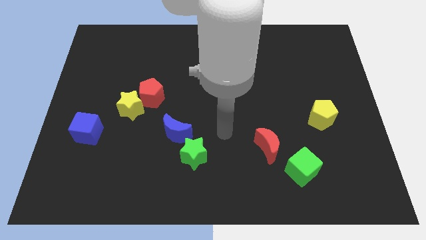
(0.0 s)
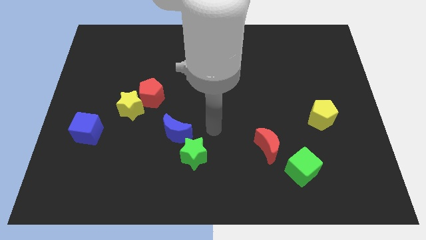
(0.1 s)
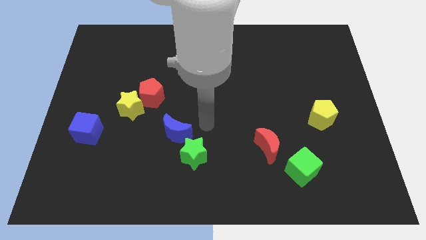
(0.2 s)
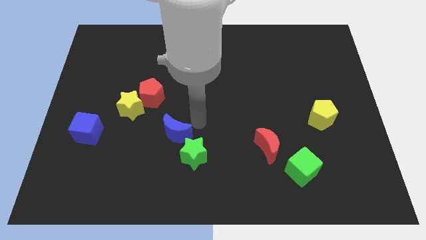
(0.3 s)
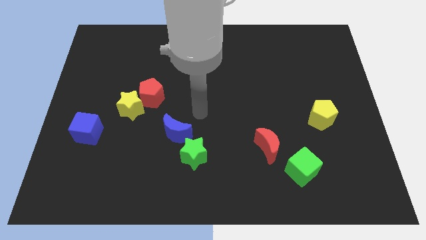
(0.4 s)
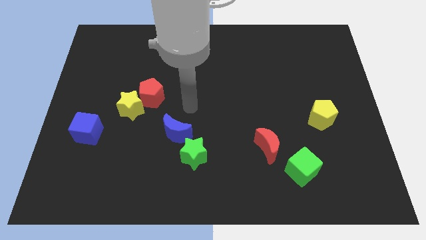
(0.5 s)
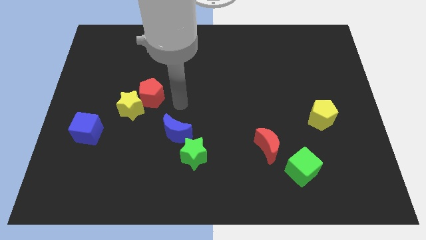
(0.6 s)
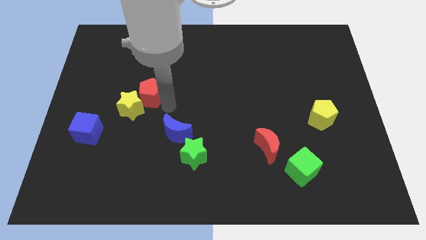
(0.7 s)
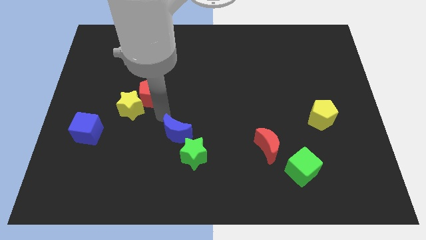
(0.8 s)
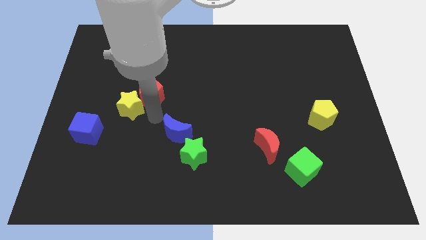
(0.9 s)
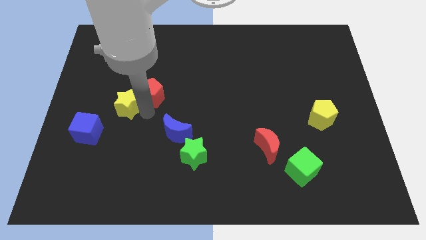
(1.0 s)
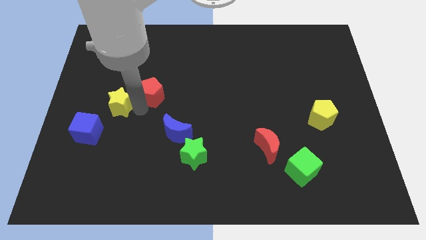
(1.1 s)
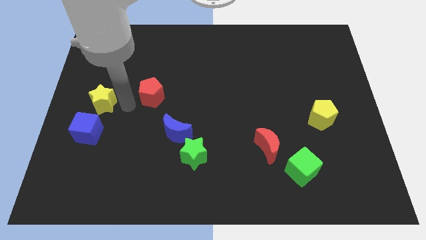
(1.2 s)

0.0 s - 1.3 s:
separate the red pentagon from the yellow star

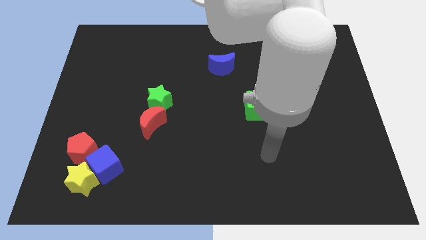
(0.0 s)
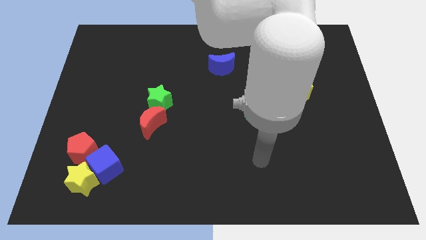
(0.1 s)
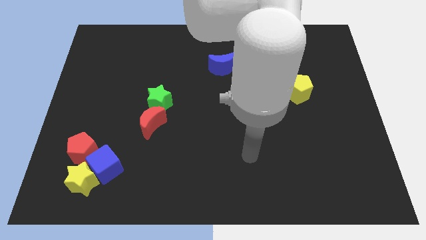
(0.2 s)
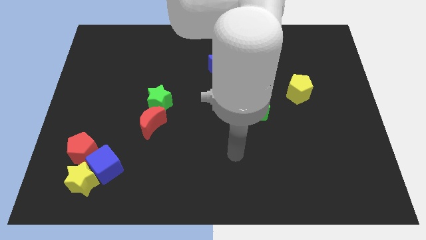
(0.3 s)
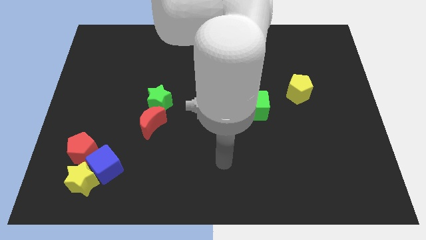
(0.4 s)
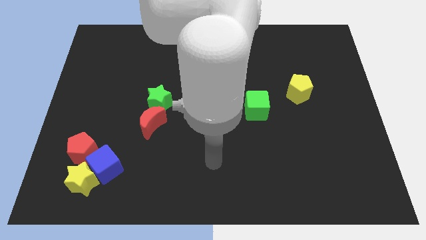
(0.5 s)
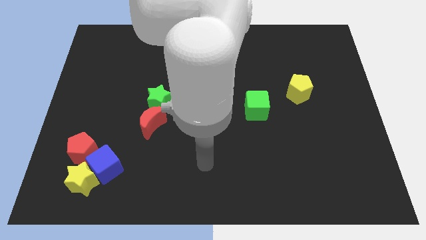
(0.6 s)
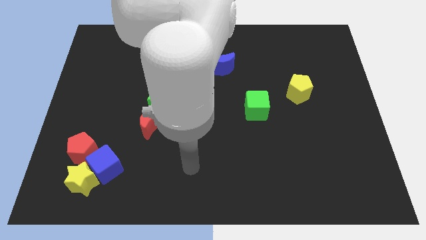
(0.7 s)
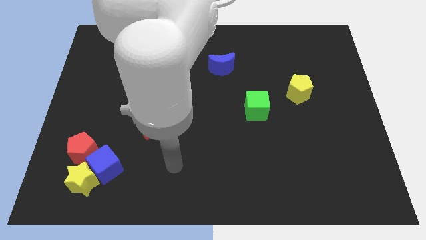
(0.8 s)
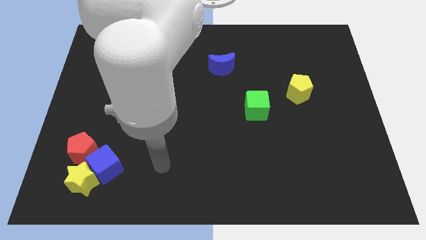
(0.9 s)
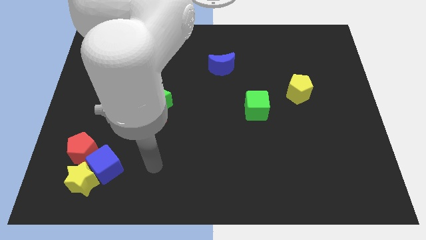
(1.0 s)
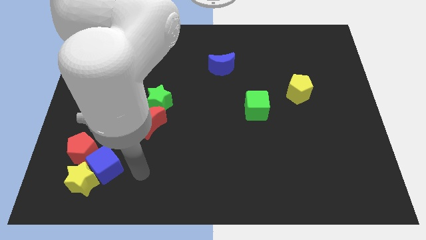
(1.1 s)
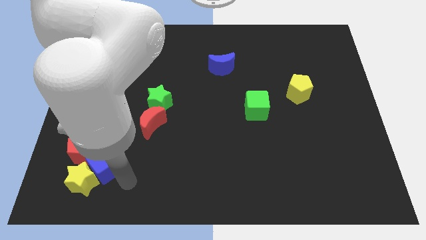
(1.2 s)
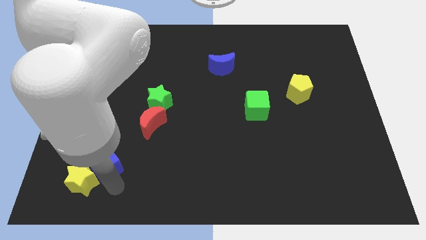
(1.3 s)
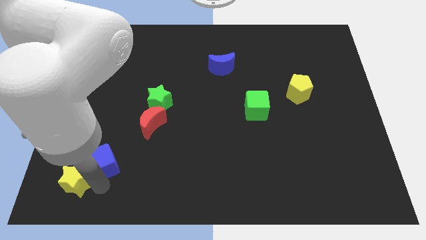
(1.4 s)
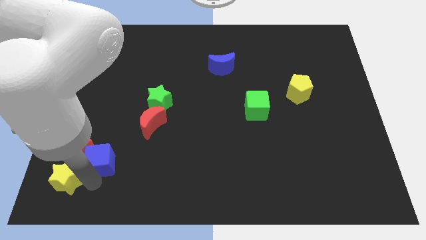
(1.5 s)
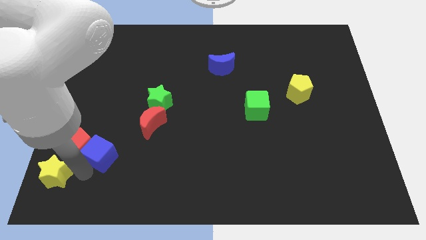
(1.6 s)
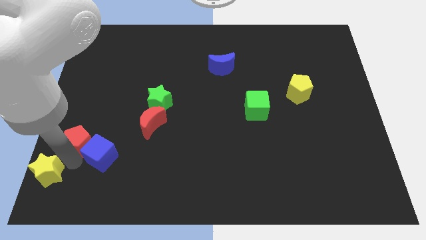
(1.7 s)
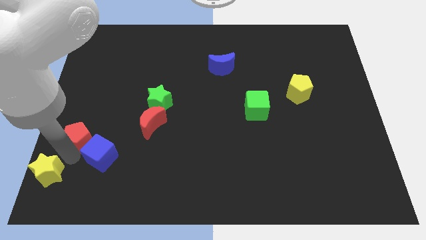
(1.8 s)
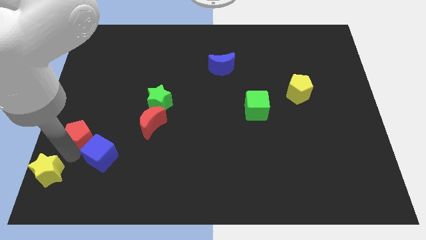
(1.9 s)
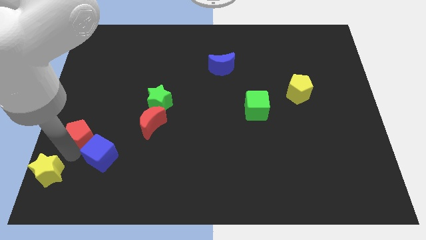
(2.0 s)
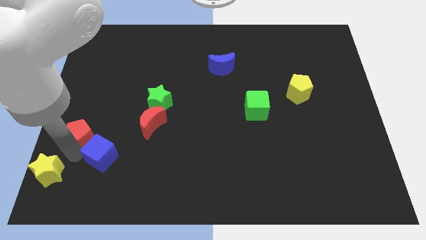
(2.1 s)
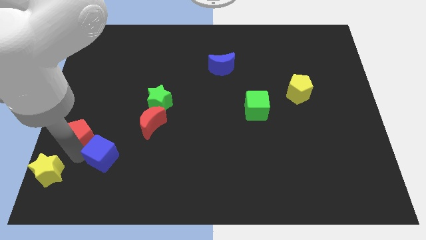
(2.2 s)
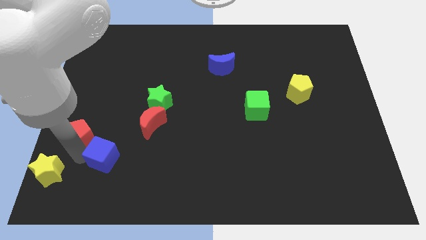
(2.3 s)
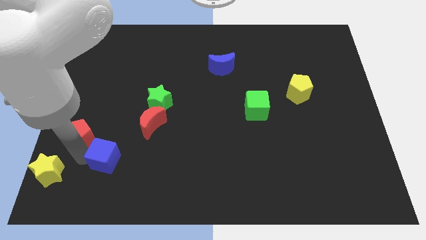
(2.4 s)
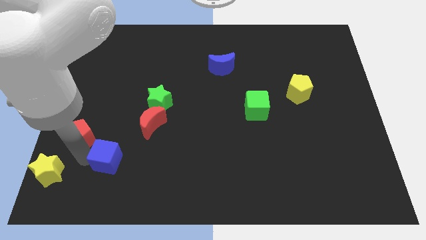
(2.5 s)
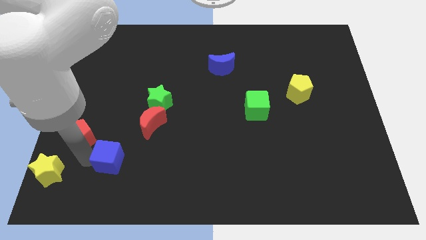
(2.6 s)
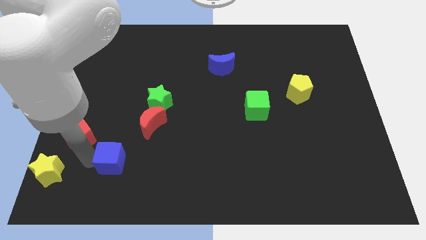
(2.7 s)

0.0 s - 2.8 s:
separate the blue cube from the yellow star and red pentagon

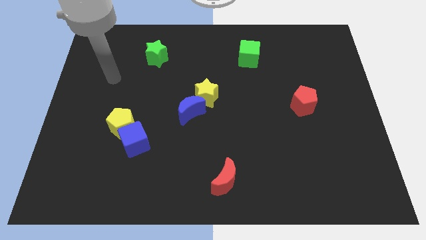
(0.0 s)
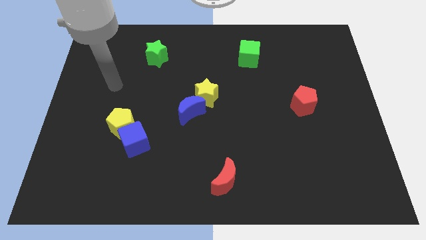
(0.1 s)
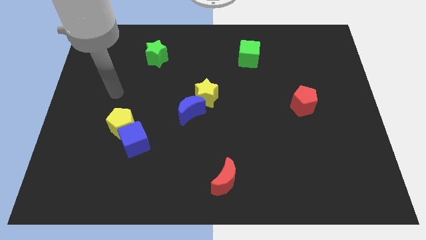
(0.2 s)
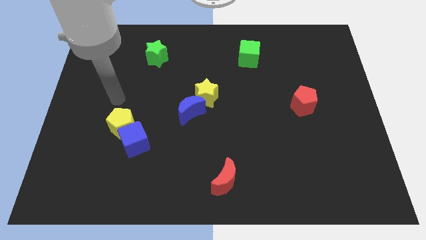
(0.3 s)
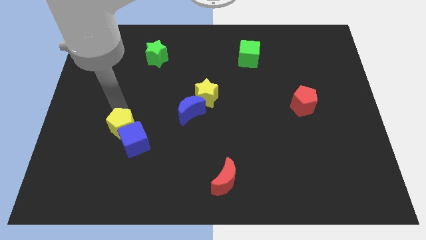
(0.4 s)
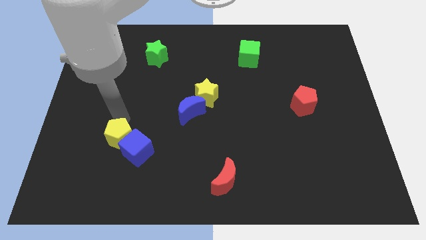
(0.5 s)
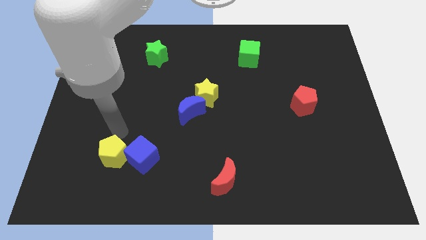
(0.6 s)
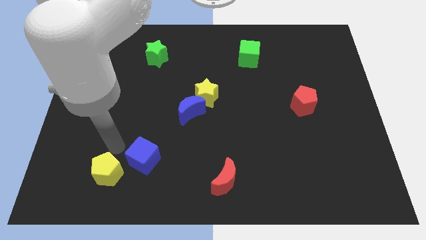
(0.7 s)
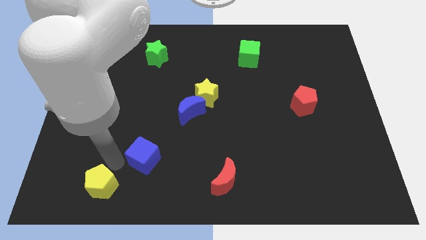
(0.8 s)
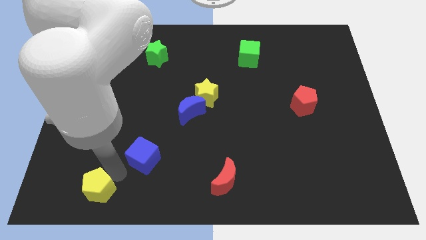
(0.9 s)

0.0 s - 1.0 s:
move the blue cube away from the yellow pentagon

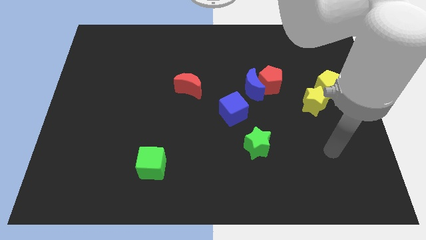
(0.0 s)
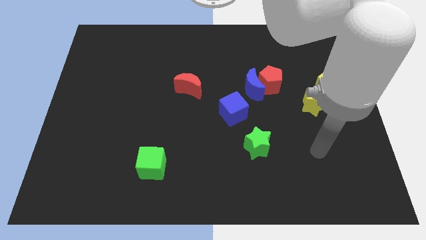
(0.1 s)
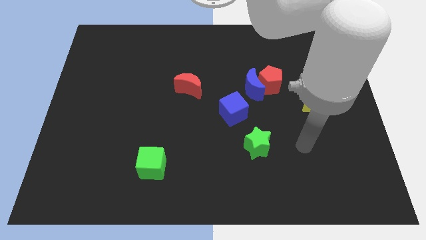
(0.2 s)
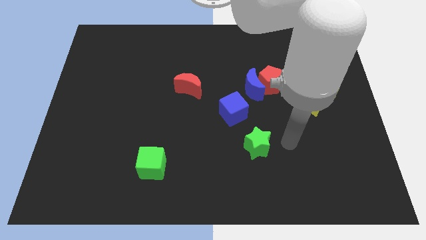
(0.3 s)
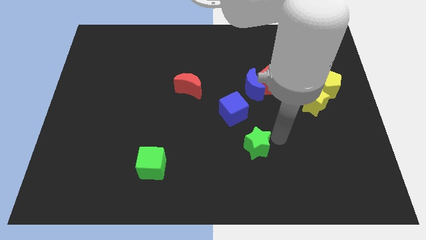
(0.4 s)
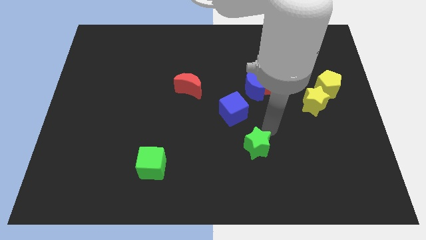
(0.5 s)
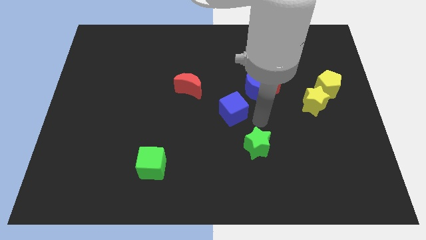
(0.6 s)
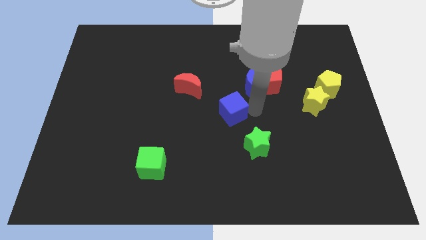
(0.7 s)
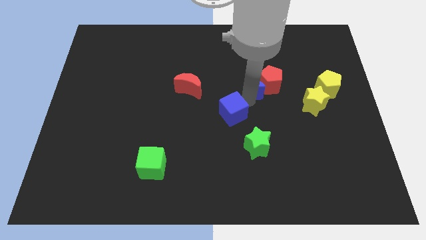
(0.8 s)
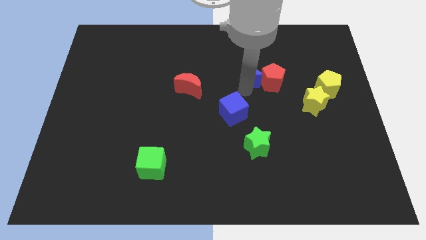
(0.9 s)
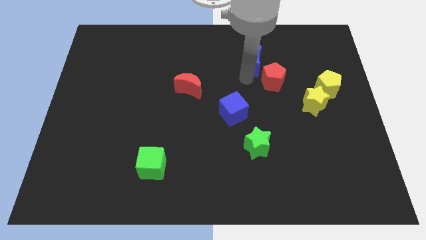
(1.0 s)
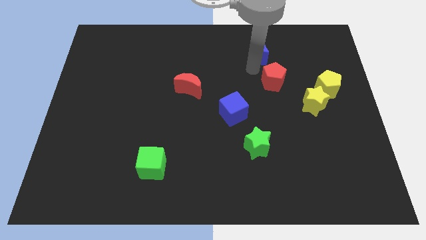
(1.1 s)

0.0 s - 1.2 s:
separate the red pentagon from the blue moon

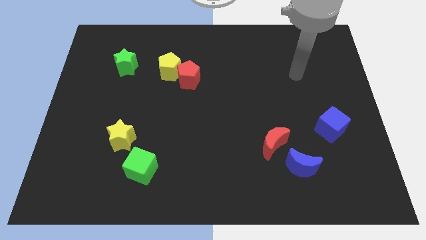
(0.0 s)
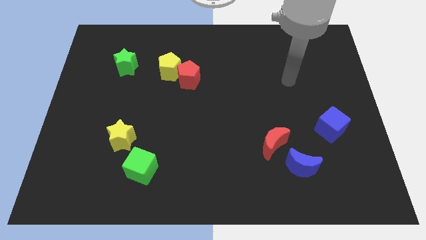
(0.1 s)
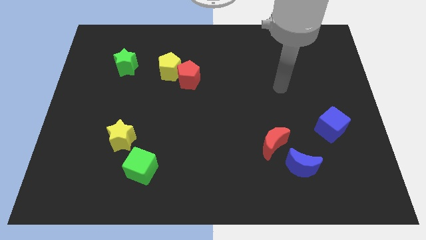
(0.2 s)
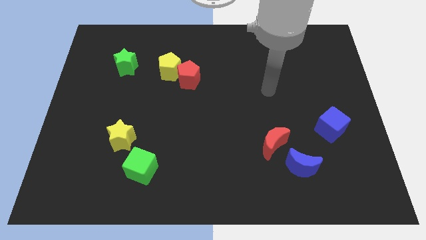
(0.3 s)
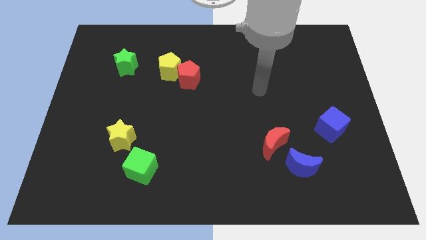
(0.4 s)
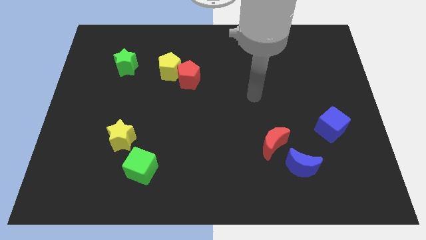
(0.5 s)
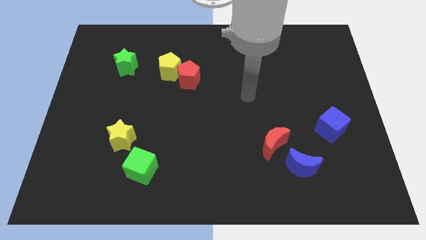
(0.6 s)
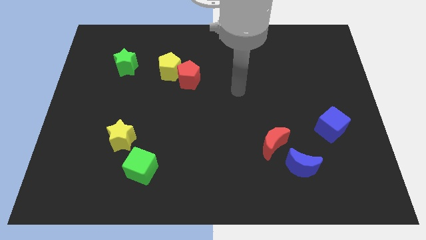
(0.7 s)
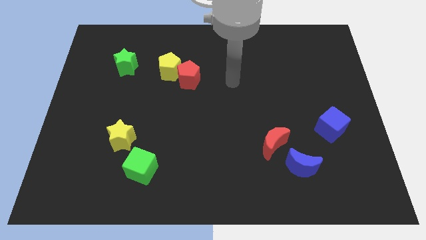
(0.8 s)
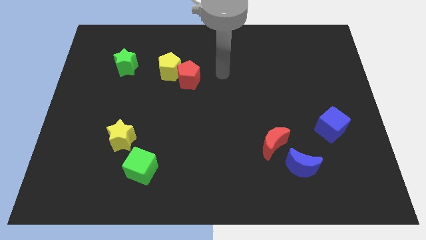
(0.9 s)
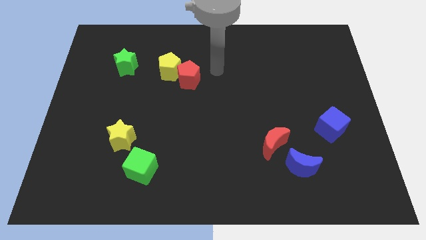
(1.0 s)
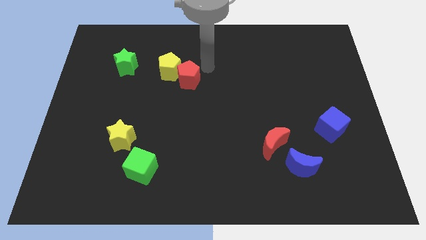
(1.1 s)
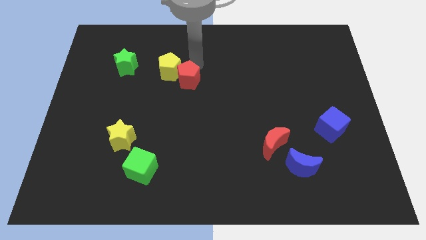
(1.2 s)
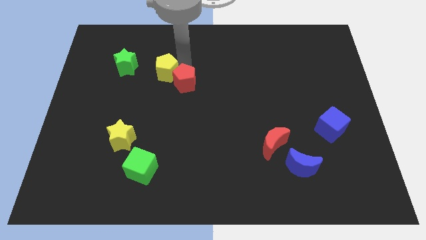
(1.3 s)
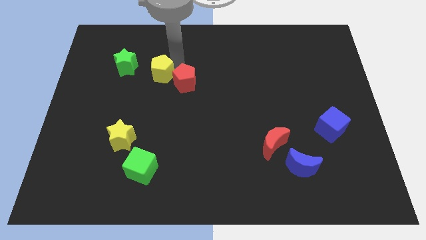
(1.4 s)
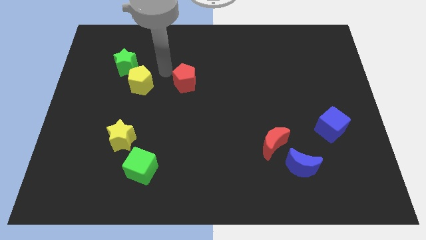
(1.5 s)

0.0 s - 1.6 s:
separate the red pentagon from the yellow pentagon

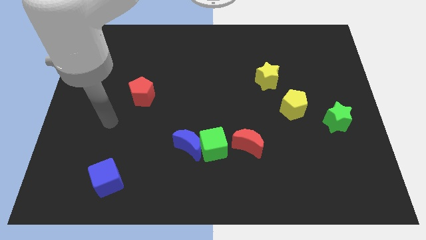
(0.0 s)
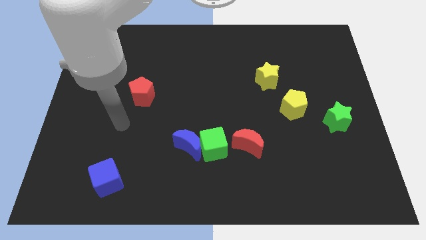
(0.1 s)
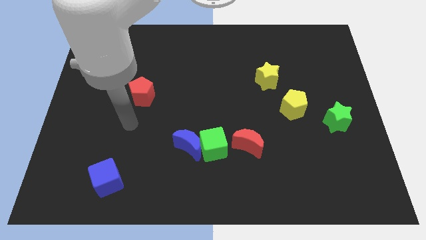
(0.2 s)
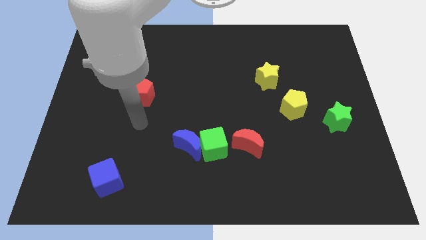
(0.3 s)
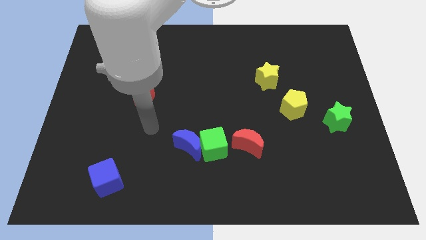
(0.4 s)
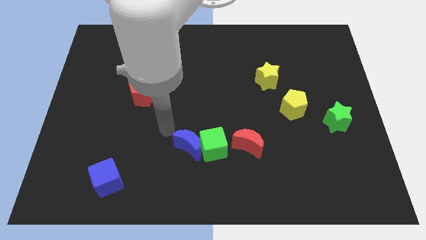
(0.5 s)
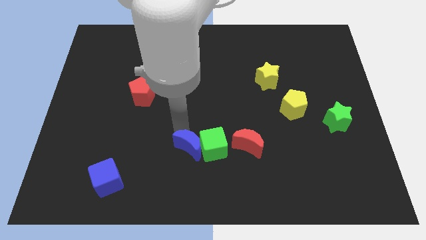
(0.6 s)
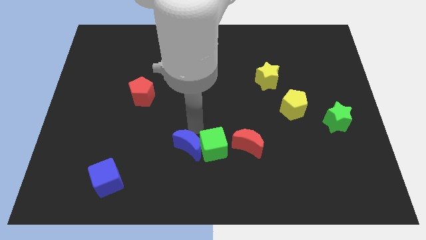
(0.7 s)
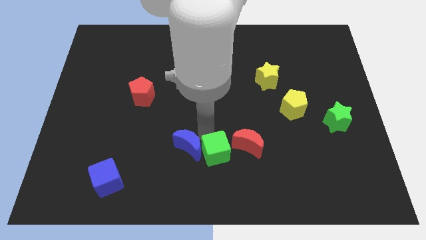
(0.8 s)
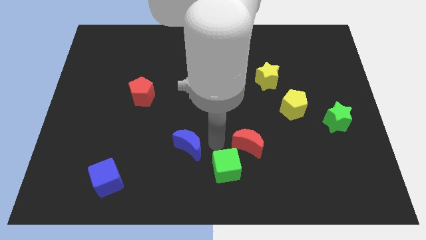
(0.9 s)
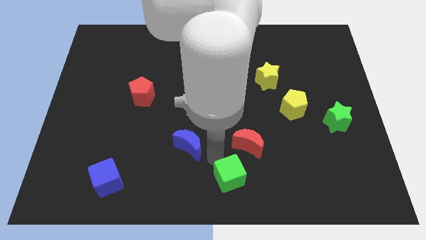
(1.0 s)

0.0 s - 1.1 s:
separate the blue moon from the green cube

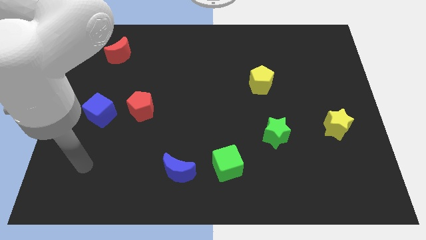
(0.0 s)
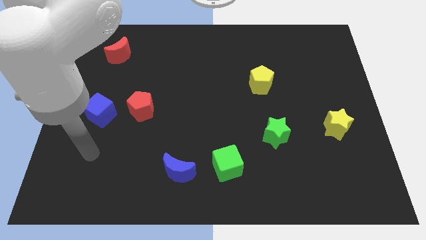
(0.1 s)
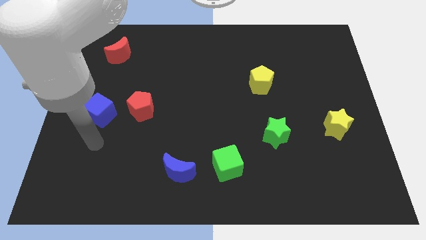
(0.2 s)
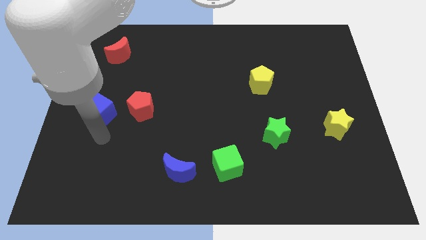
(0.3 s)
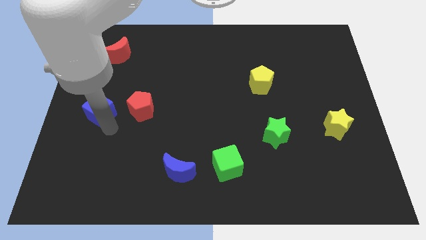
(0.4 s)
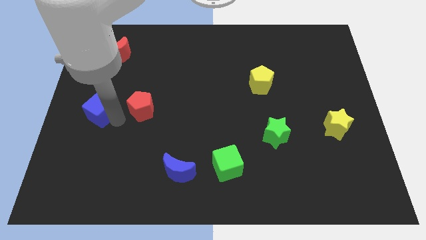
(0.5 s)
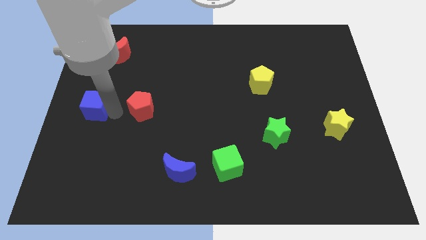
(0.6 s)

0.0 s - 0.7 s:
pull the red pentagon apart from the blue cube
